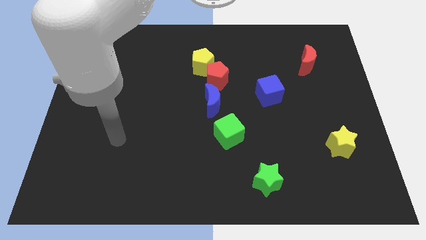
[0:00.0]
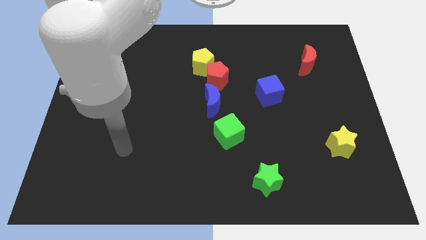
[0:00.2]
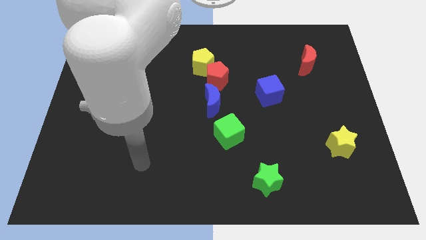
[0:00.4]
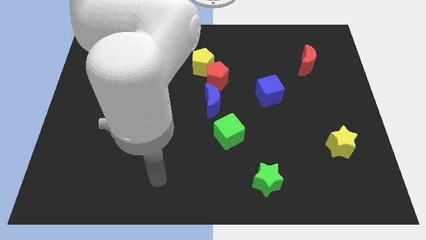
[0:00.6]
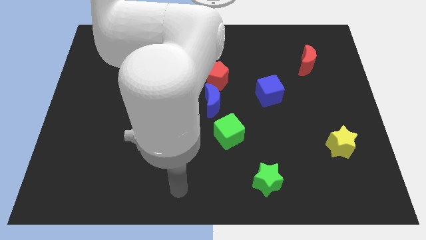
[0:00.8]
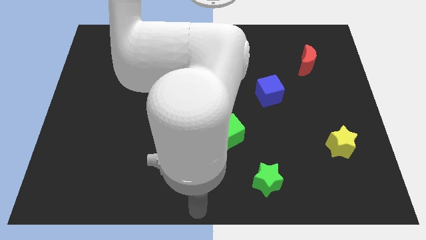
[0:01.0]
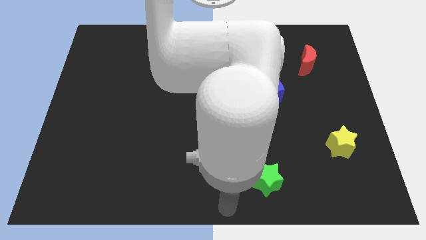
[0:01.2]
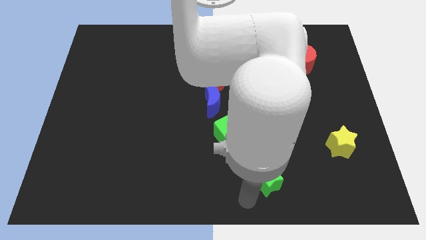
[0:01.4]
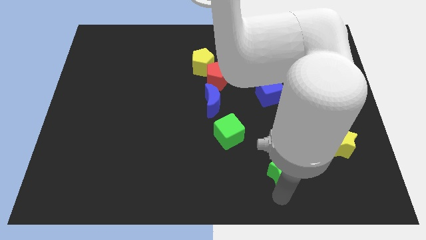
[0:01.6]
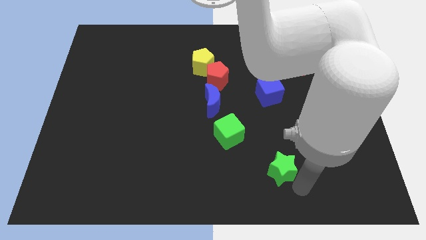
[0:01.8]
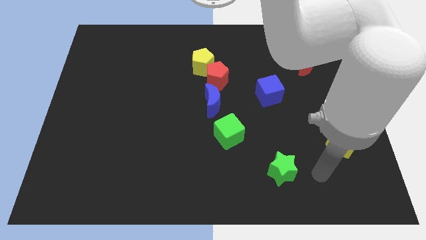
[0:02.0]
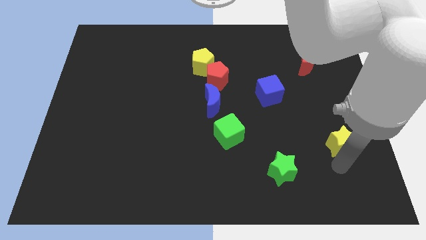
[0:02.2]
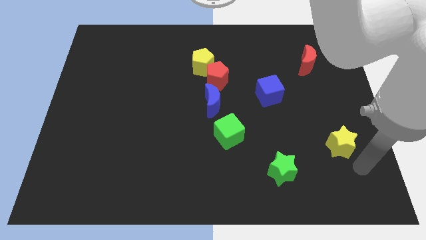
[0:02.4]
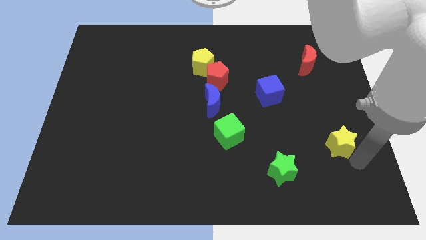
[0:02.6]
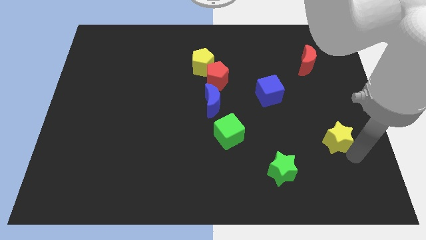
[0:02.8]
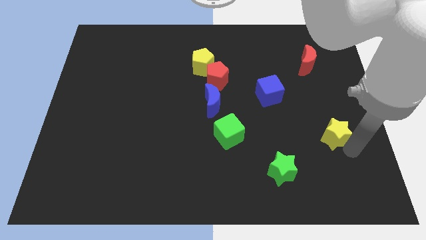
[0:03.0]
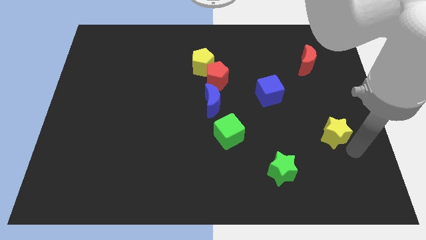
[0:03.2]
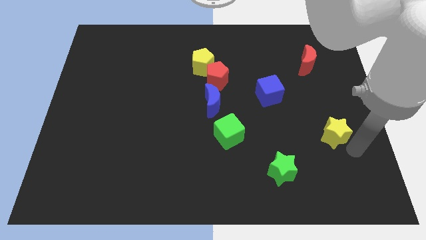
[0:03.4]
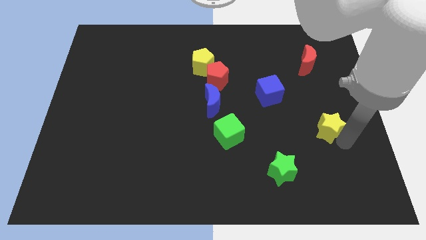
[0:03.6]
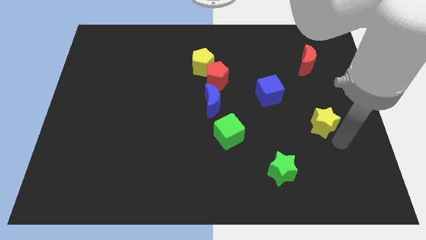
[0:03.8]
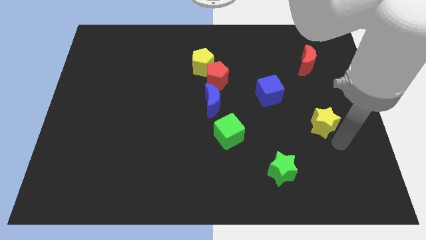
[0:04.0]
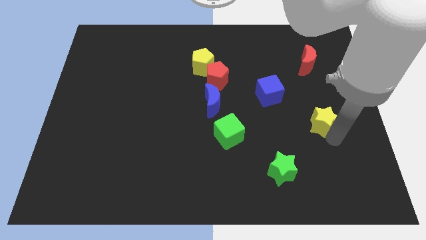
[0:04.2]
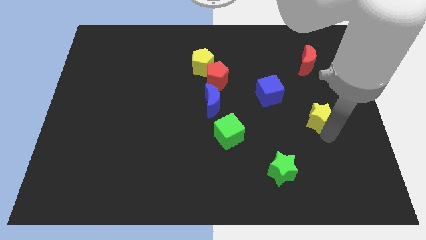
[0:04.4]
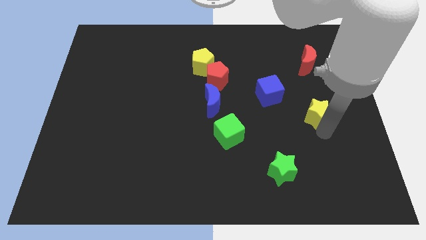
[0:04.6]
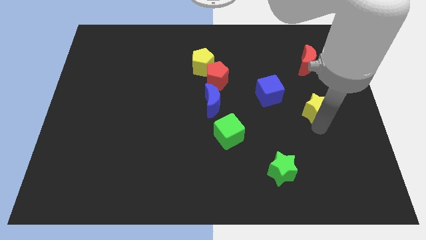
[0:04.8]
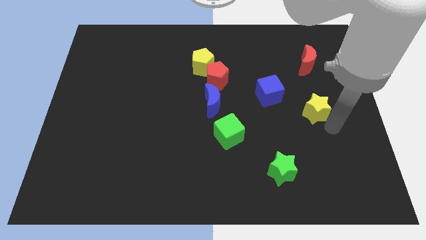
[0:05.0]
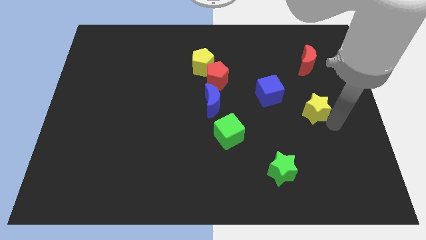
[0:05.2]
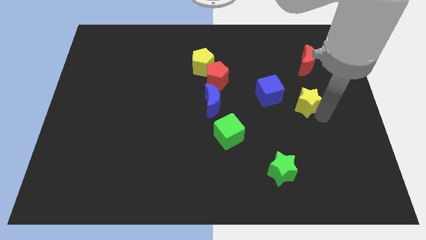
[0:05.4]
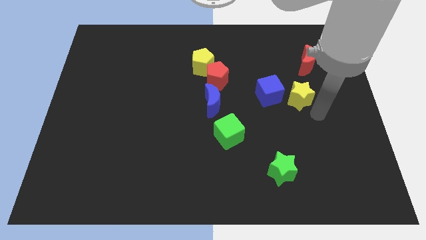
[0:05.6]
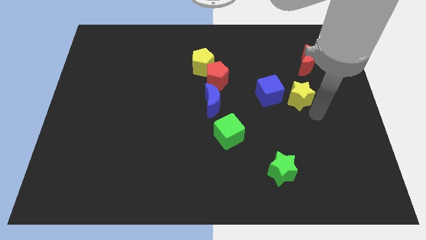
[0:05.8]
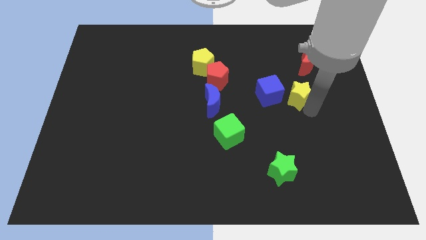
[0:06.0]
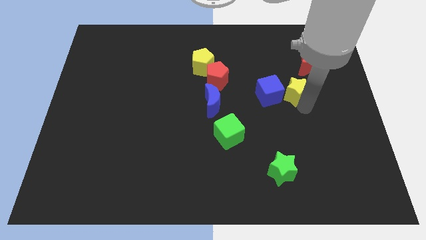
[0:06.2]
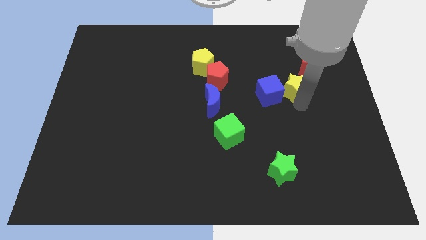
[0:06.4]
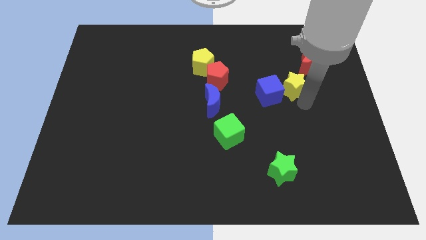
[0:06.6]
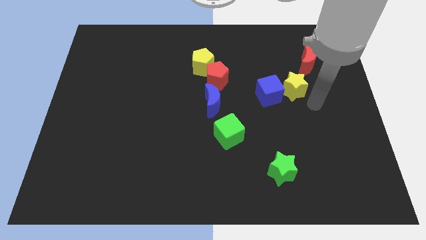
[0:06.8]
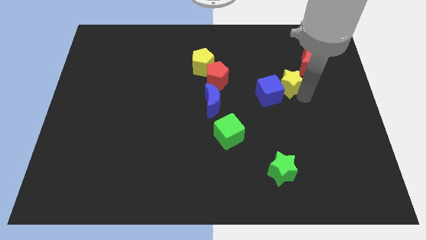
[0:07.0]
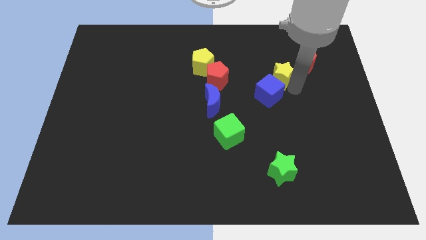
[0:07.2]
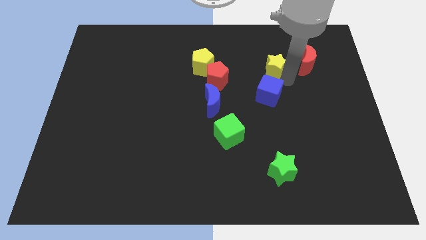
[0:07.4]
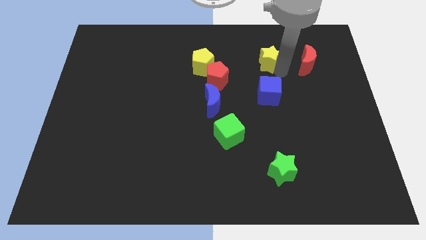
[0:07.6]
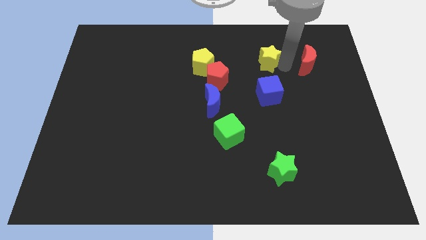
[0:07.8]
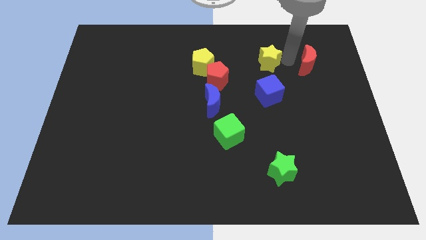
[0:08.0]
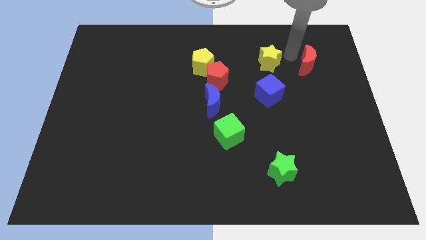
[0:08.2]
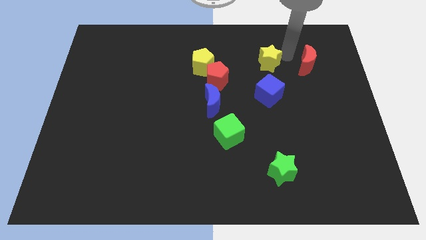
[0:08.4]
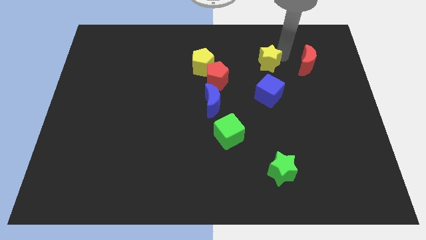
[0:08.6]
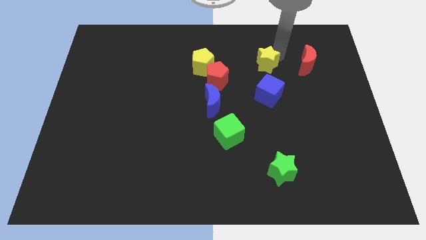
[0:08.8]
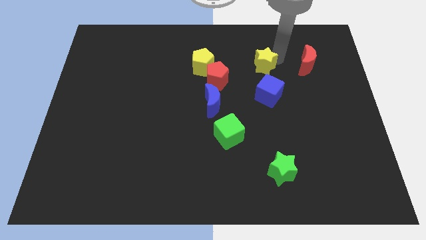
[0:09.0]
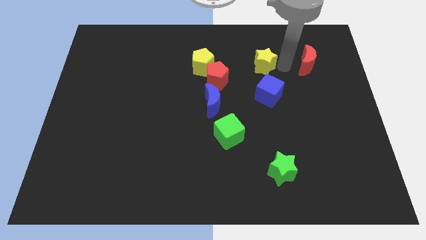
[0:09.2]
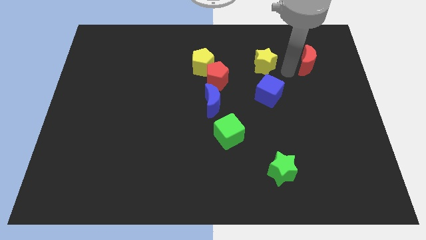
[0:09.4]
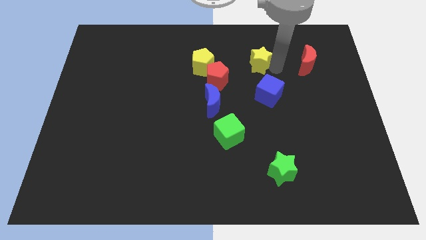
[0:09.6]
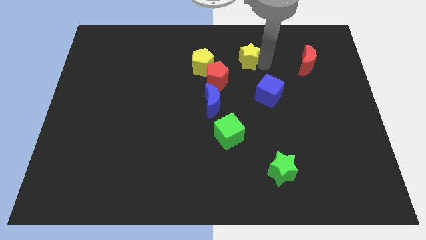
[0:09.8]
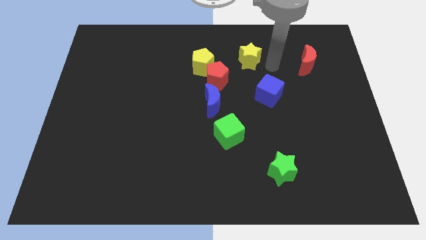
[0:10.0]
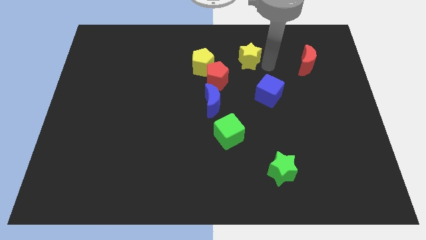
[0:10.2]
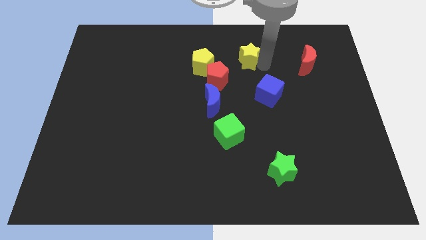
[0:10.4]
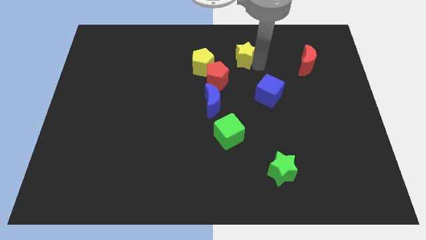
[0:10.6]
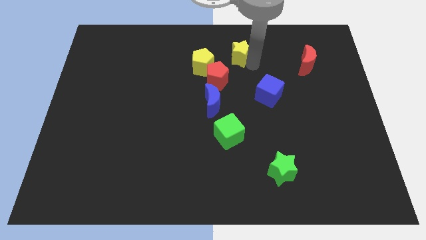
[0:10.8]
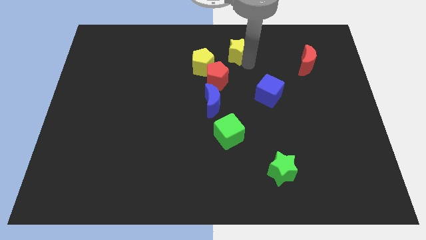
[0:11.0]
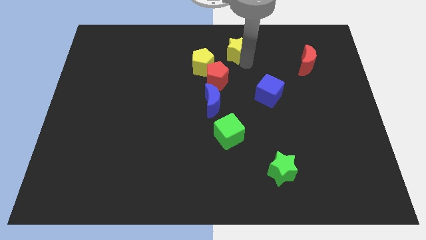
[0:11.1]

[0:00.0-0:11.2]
push the yellow star to the top side
